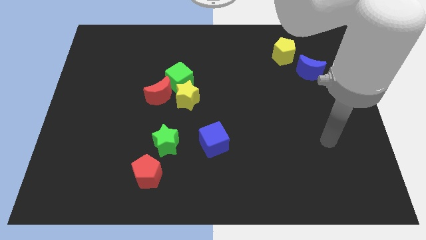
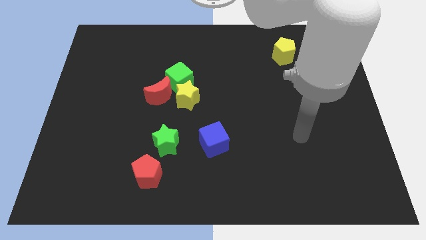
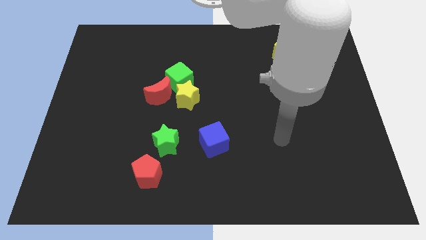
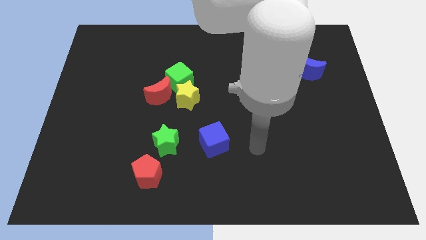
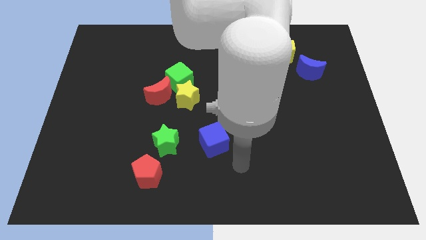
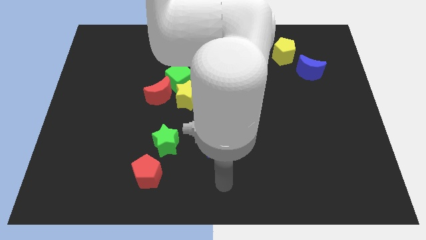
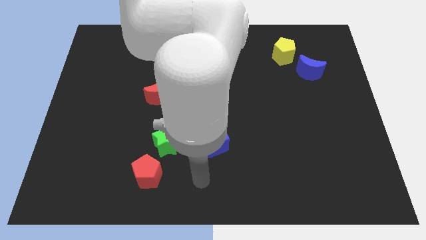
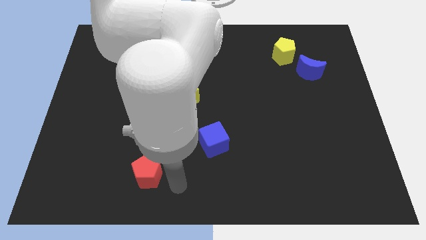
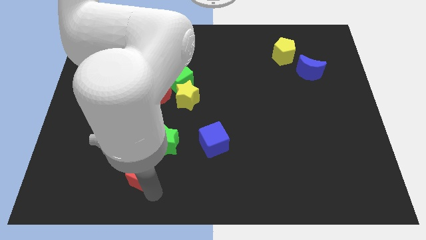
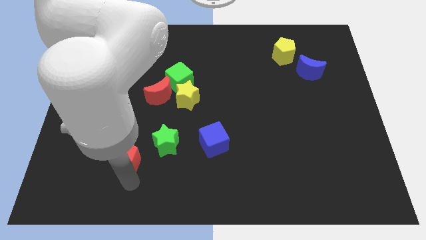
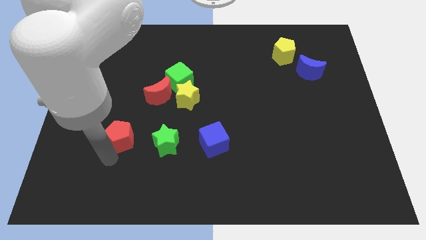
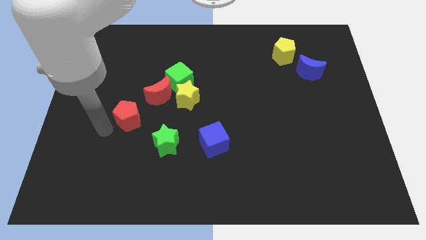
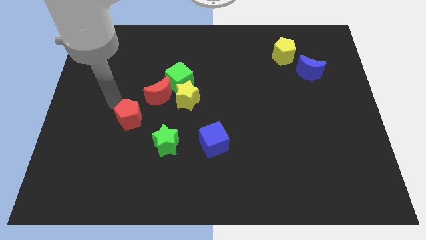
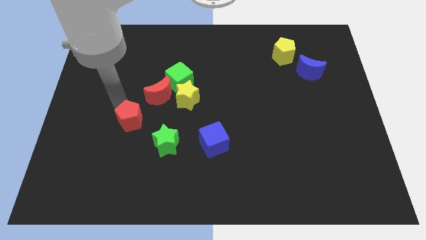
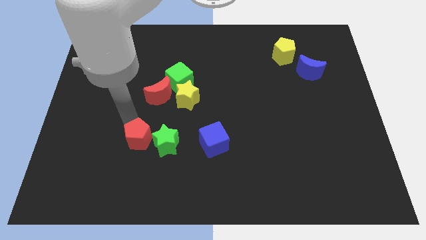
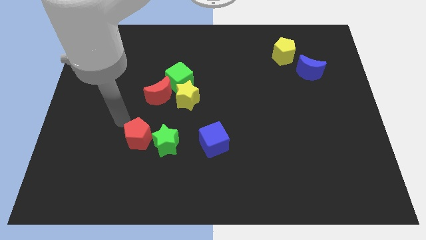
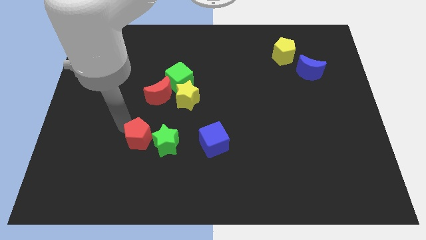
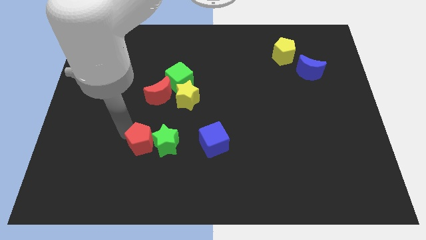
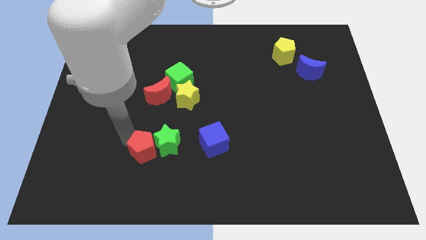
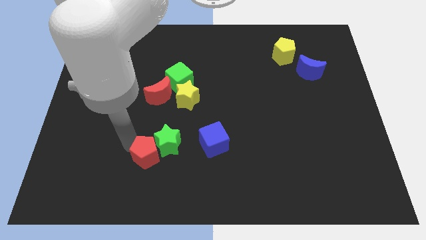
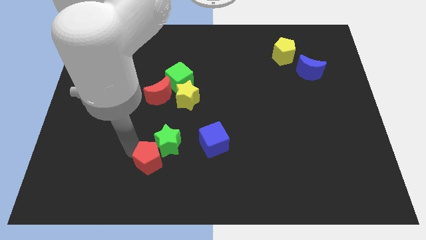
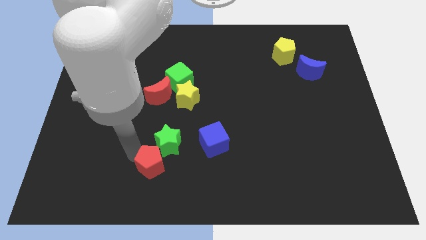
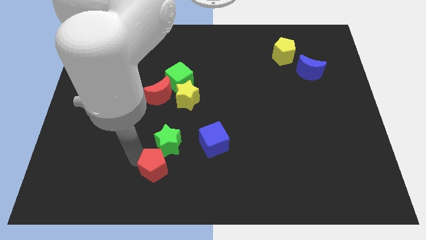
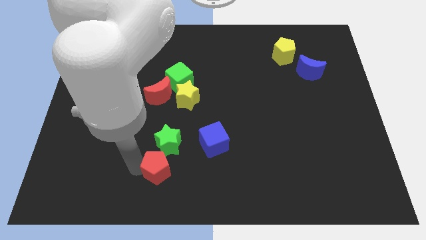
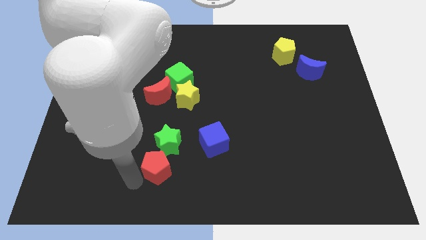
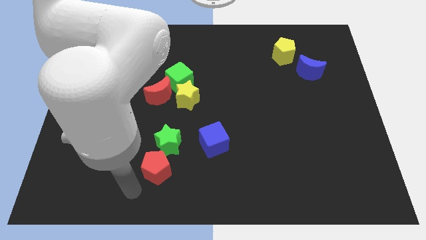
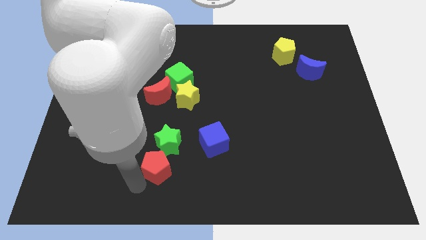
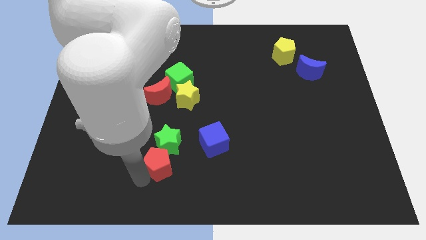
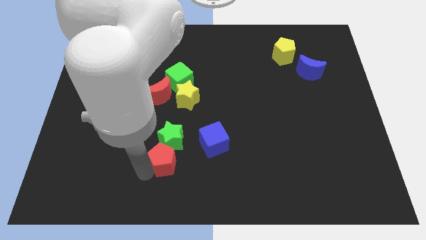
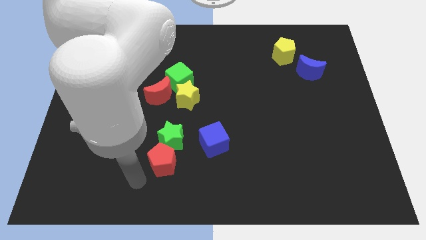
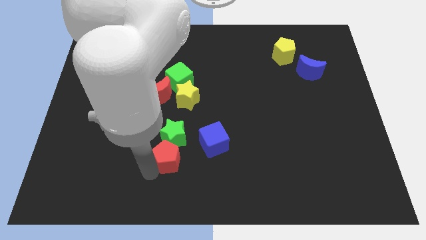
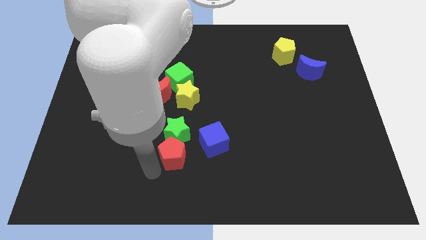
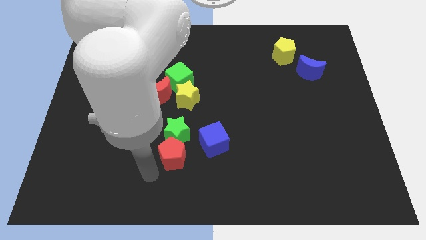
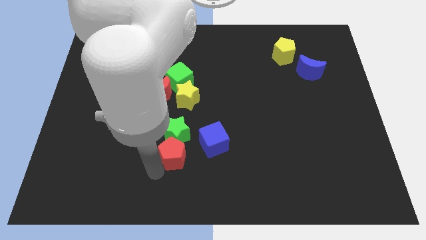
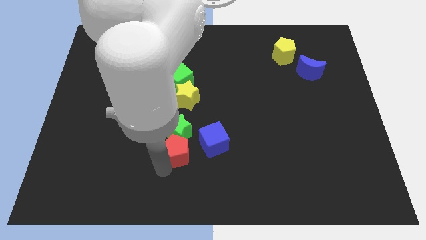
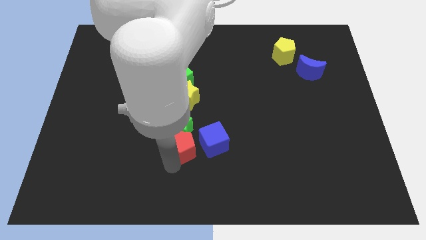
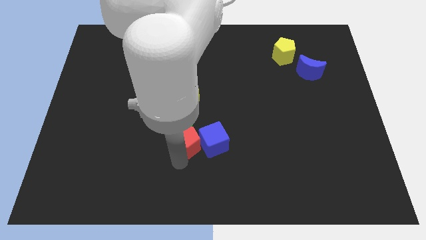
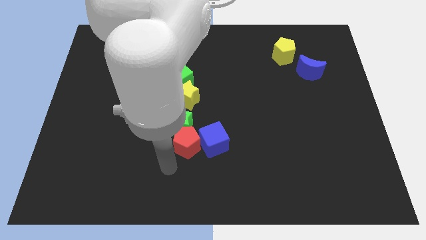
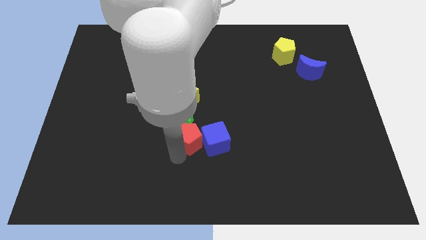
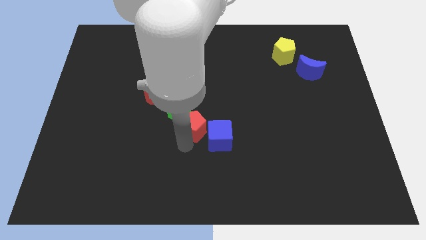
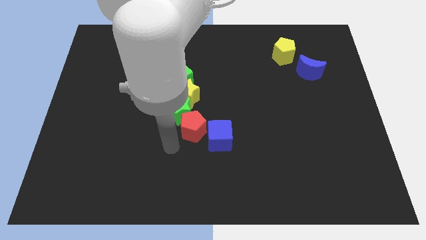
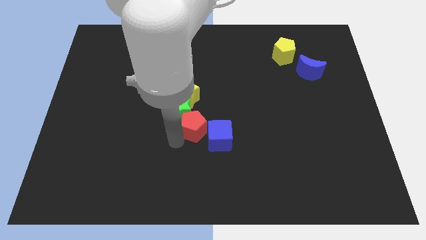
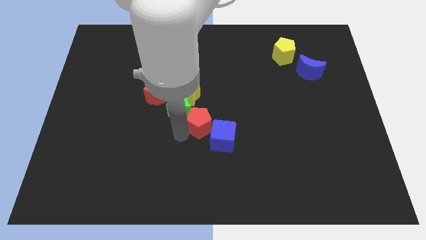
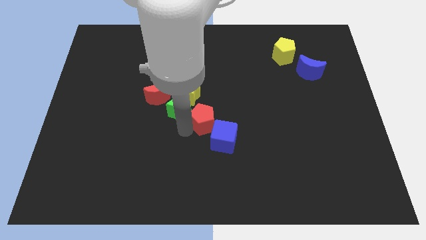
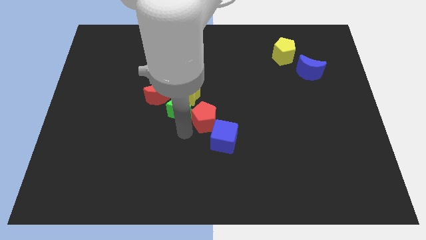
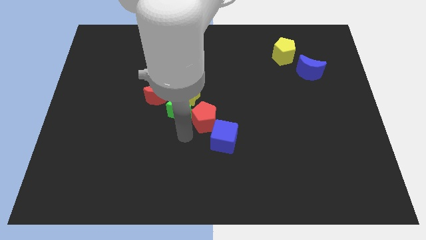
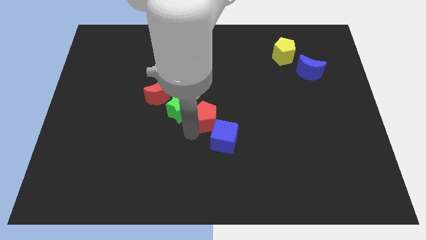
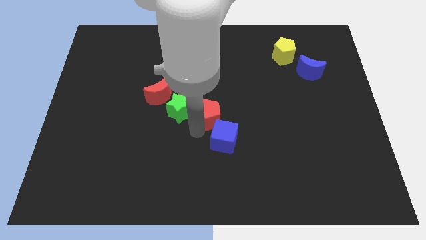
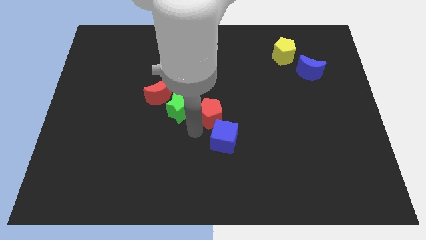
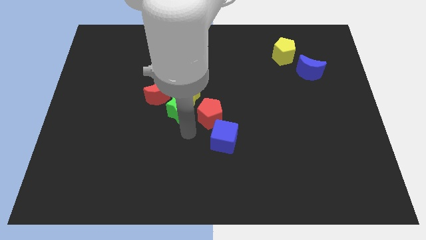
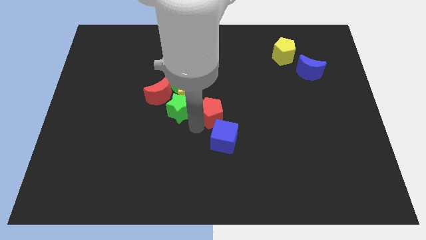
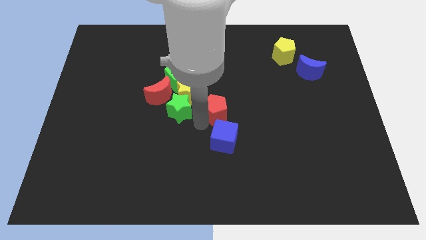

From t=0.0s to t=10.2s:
move the red pentagon up and to the right diagonally

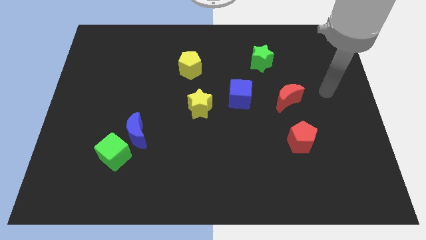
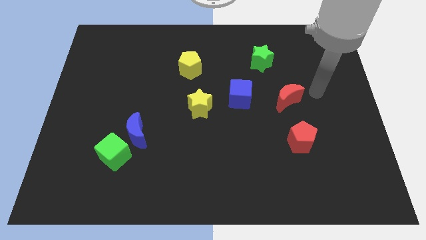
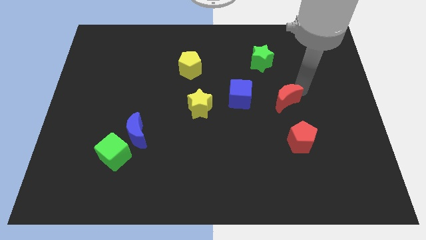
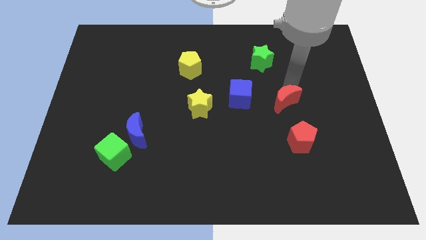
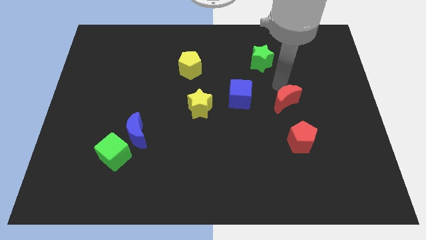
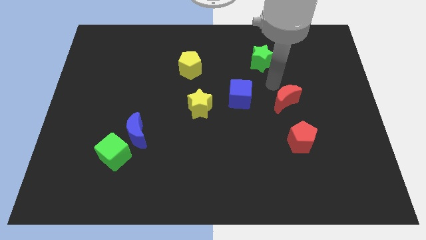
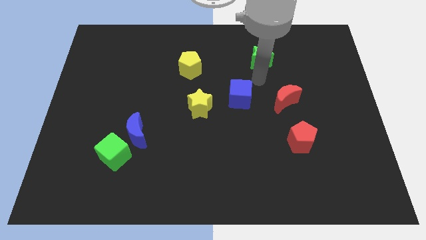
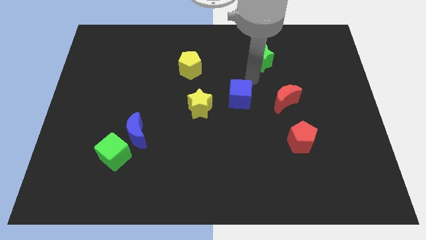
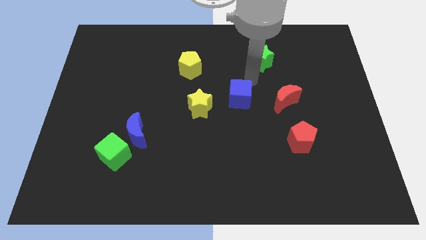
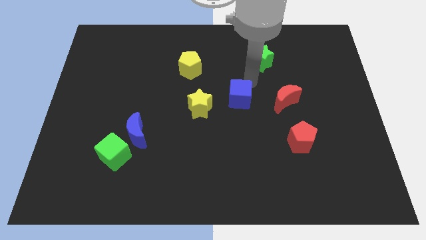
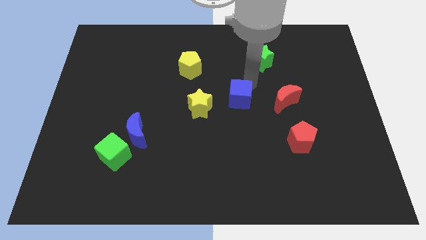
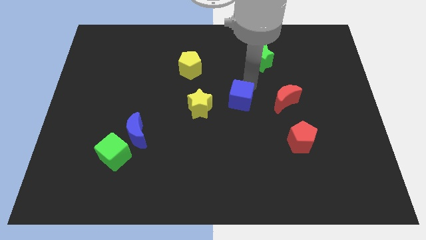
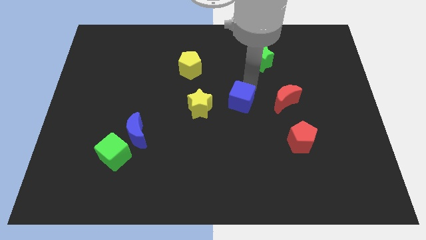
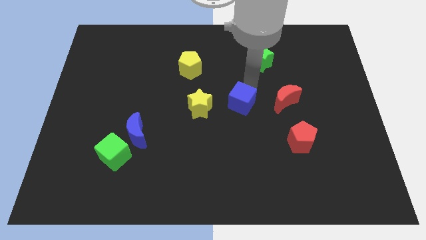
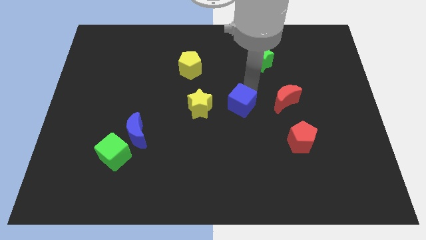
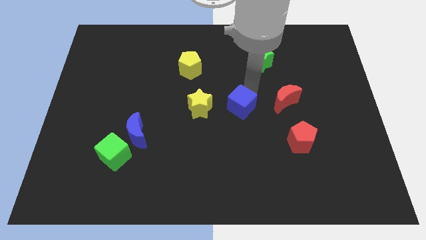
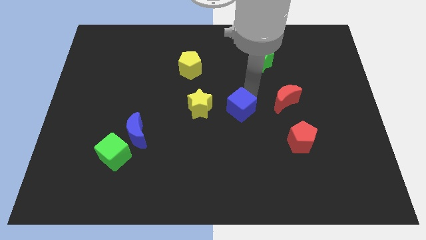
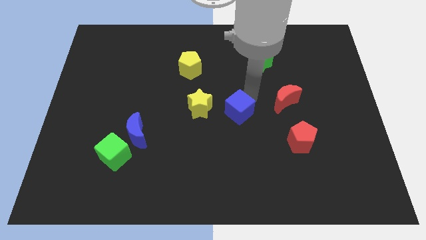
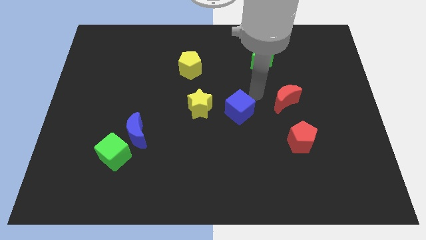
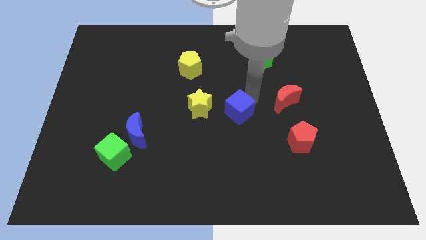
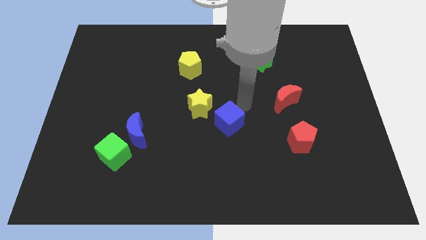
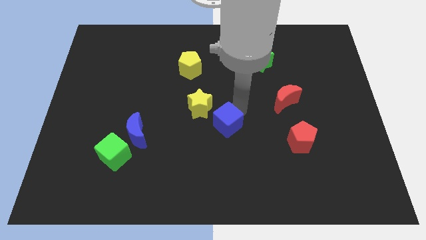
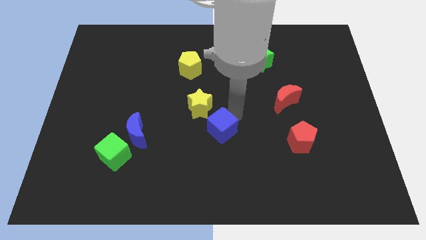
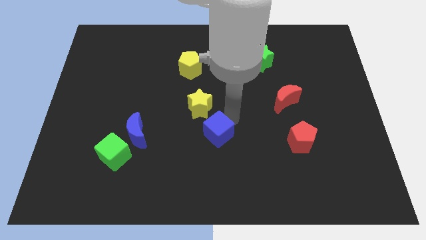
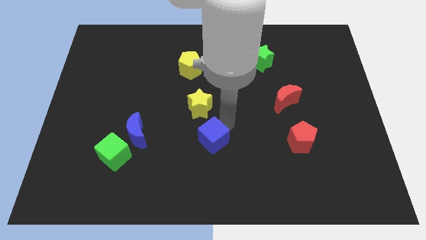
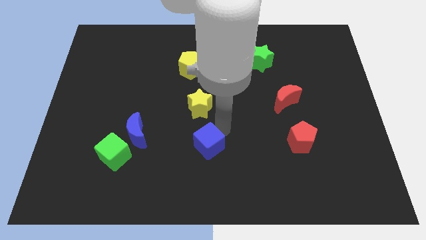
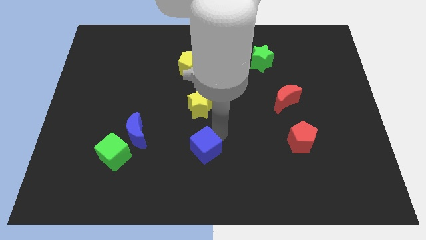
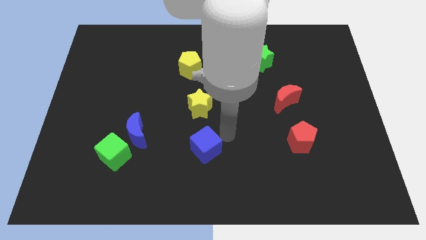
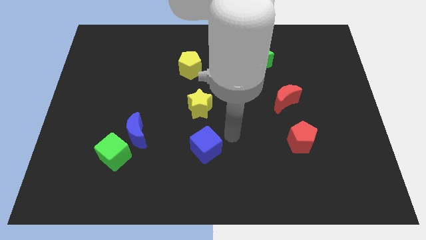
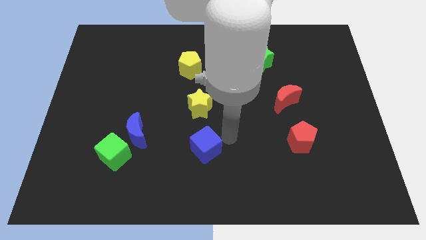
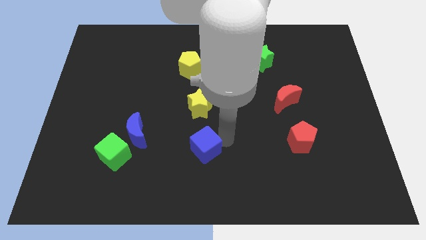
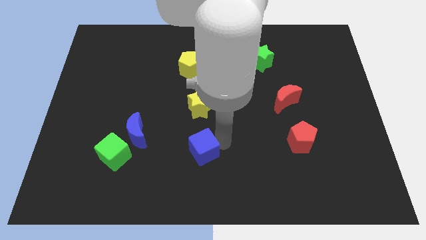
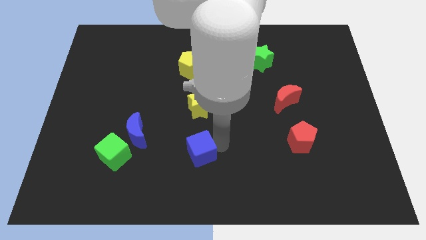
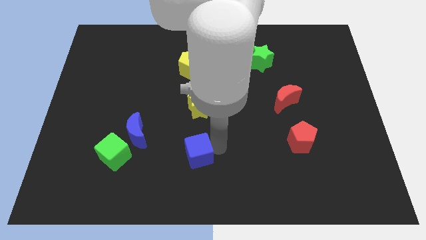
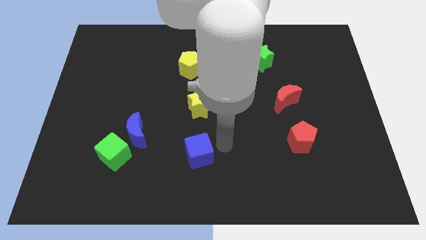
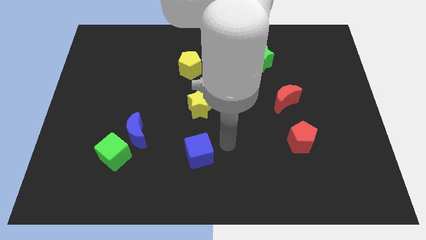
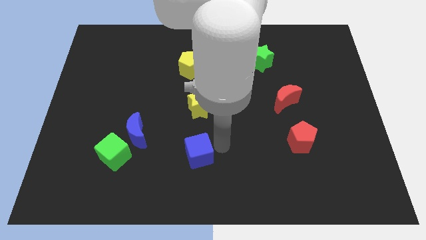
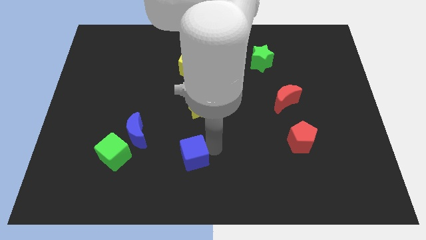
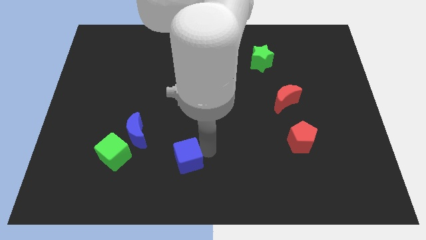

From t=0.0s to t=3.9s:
slide the blue cube down and left diagonally
